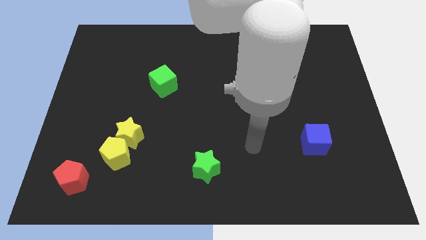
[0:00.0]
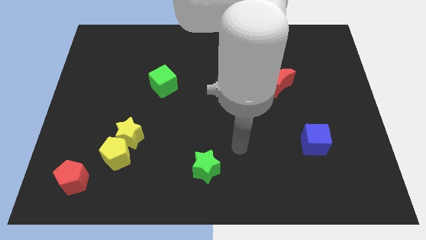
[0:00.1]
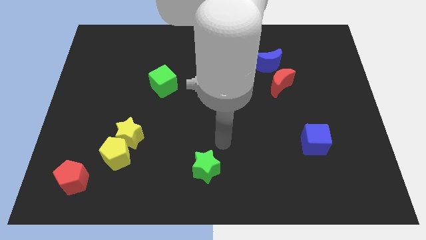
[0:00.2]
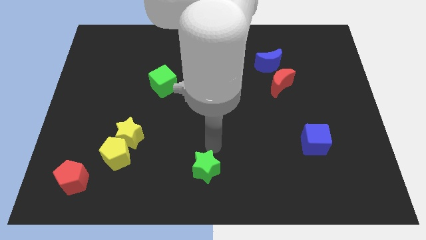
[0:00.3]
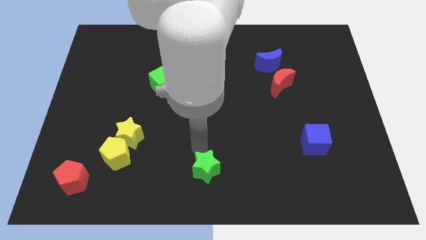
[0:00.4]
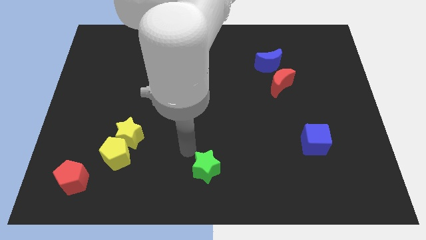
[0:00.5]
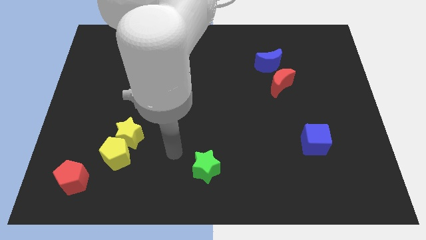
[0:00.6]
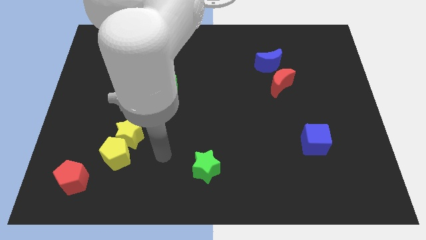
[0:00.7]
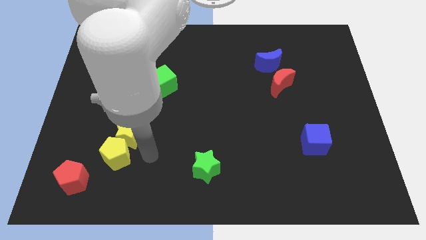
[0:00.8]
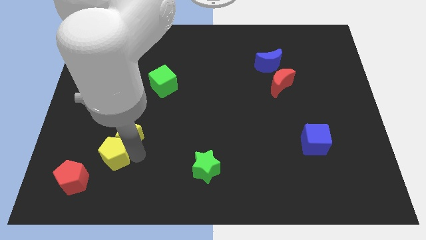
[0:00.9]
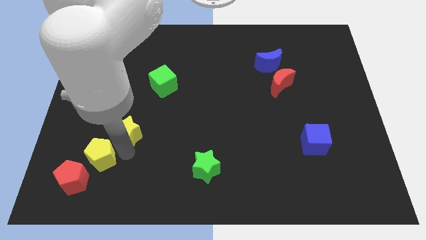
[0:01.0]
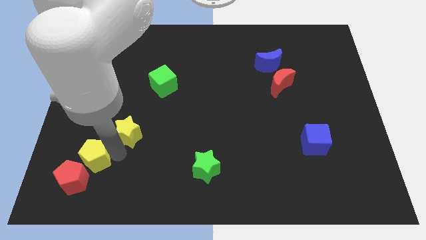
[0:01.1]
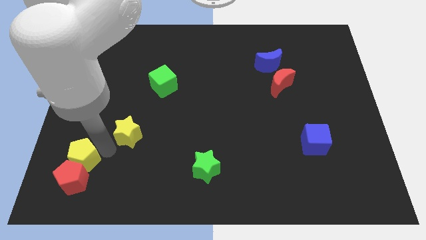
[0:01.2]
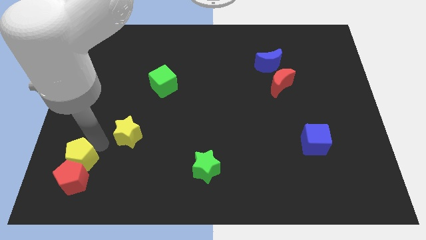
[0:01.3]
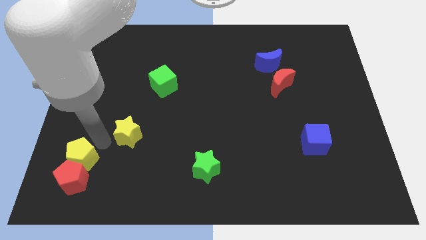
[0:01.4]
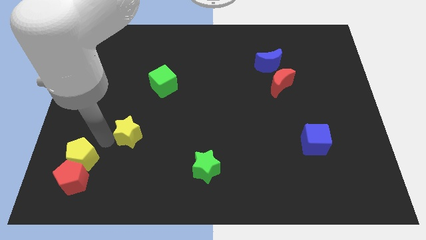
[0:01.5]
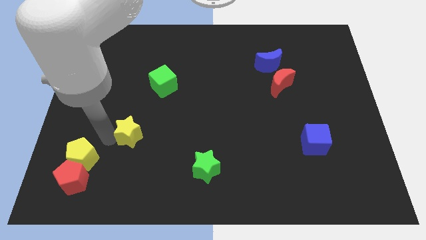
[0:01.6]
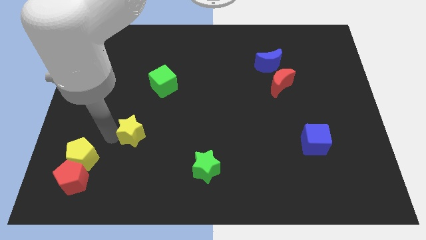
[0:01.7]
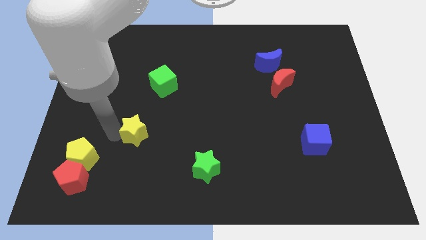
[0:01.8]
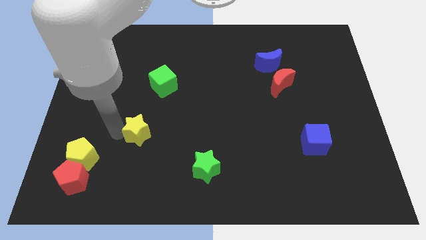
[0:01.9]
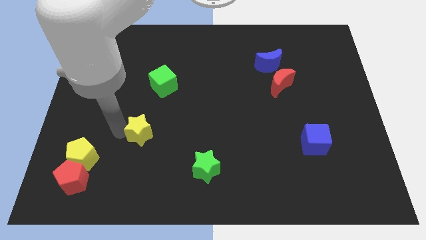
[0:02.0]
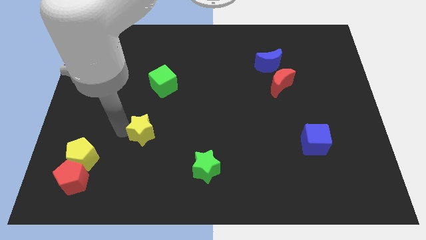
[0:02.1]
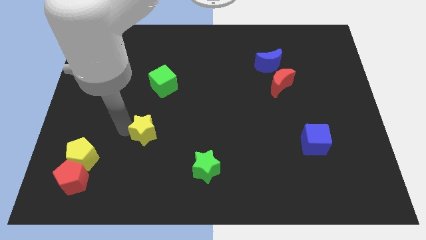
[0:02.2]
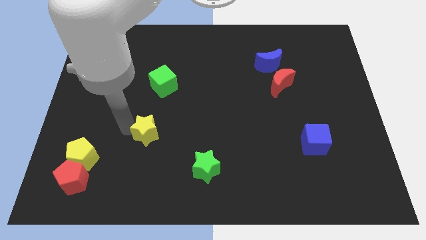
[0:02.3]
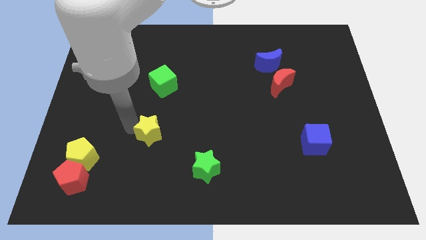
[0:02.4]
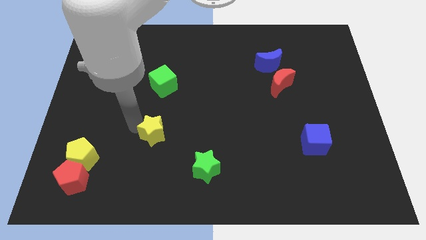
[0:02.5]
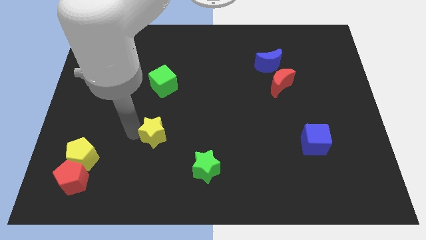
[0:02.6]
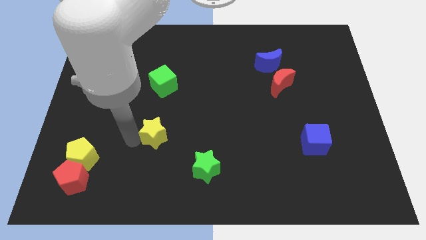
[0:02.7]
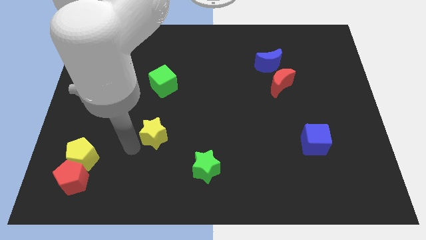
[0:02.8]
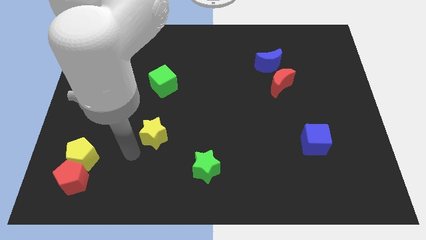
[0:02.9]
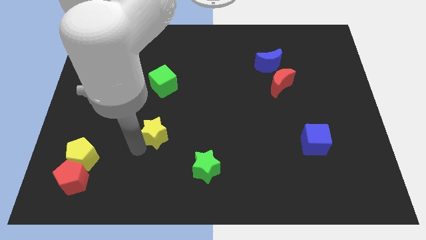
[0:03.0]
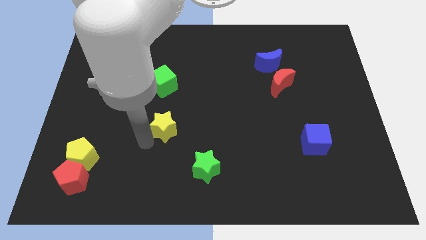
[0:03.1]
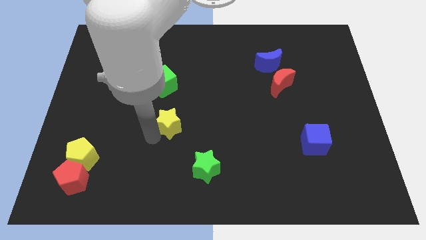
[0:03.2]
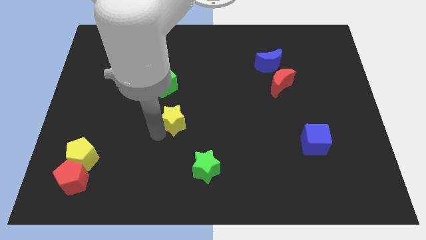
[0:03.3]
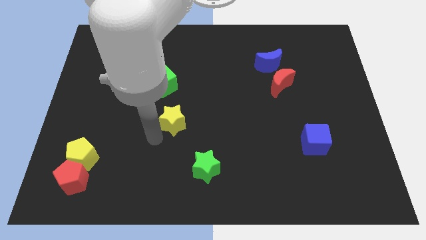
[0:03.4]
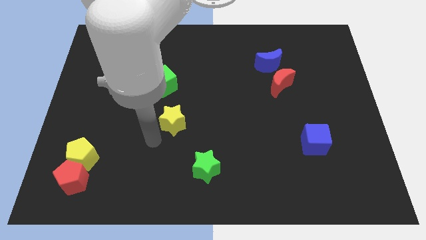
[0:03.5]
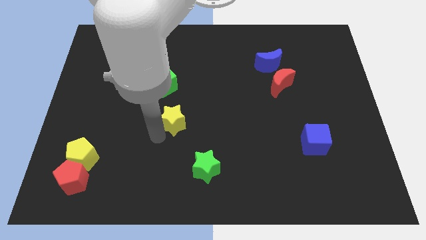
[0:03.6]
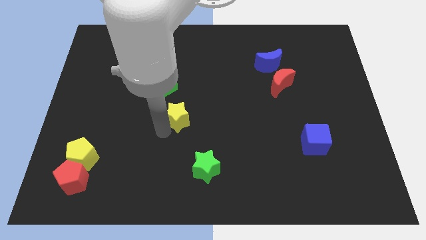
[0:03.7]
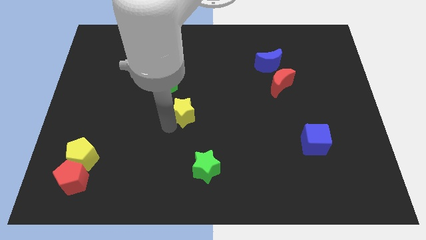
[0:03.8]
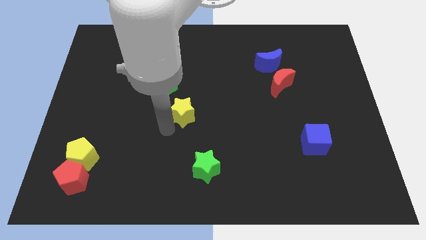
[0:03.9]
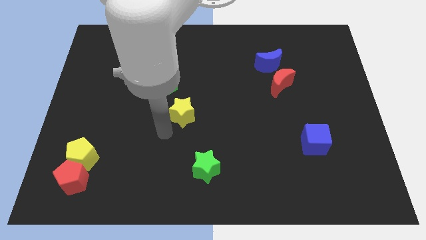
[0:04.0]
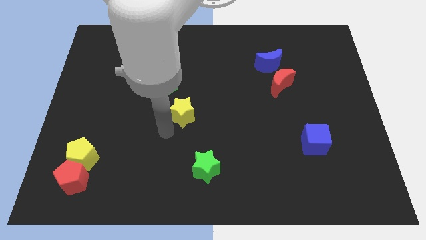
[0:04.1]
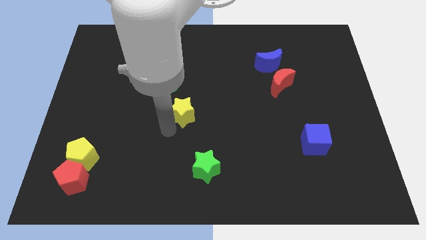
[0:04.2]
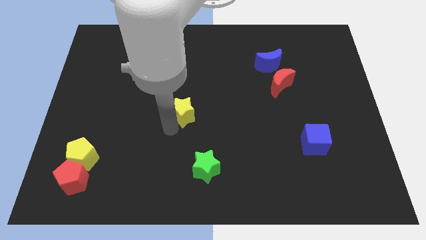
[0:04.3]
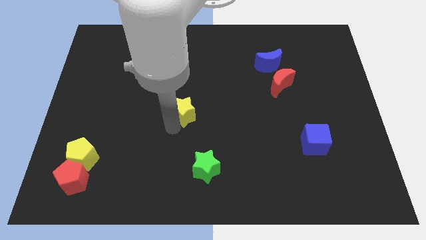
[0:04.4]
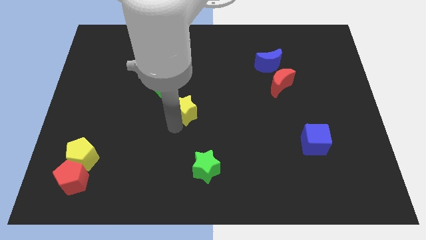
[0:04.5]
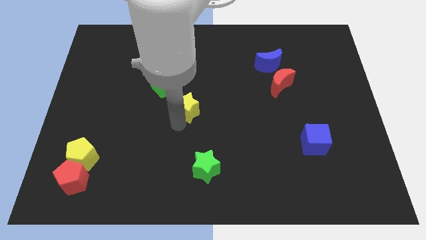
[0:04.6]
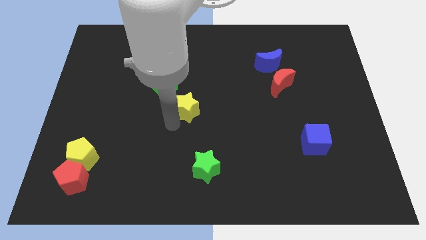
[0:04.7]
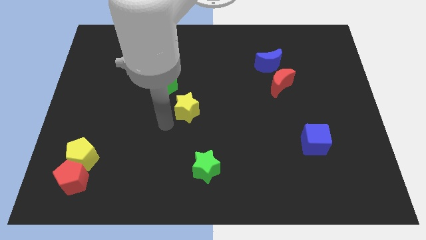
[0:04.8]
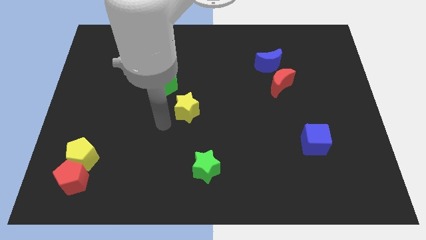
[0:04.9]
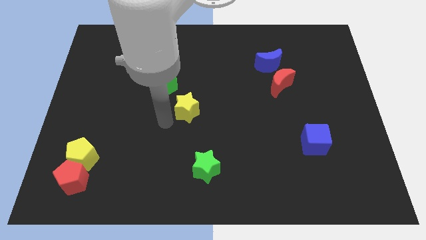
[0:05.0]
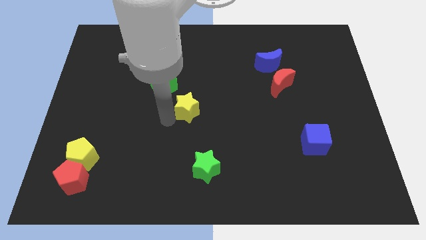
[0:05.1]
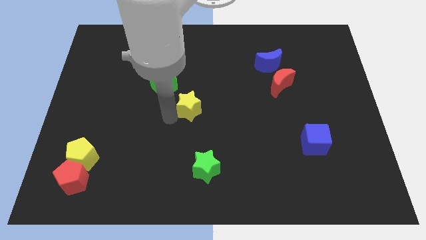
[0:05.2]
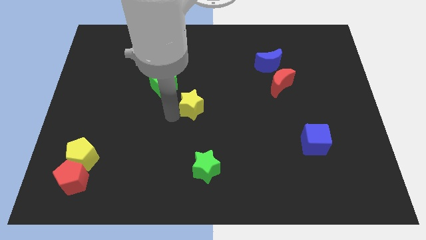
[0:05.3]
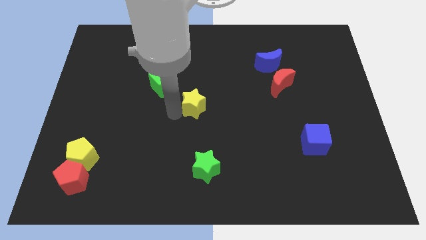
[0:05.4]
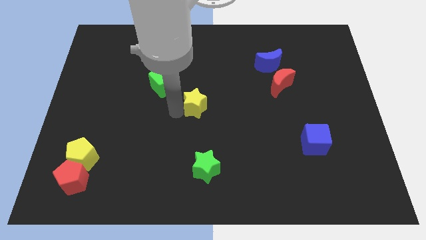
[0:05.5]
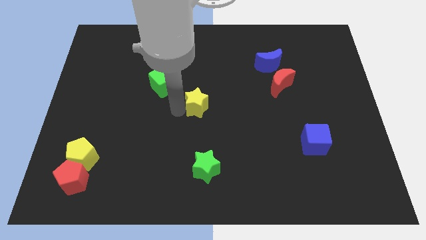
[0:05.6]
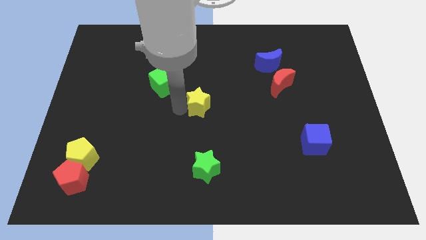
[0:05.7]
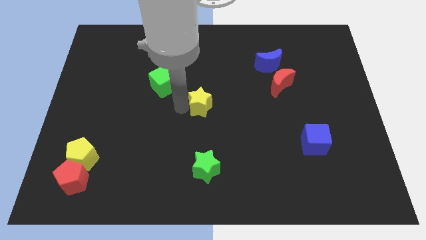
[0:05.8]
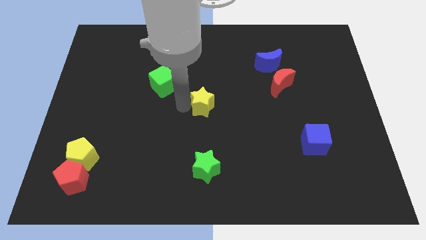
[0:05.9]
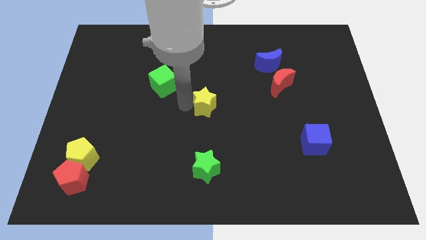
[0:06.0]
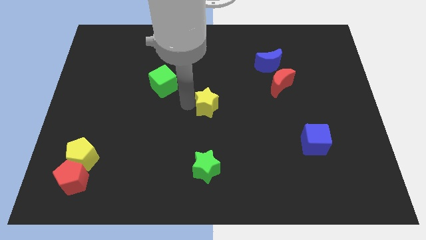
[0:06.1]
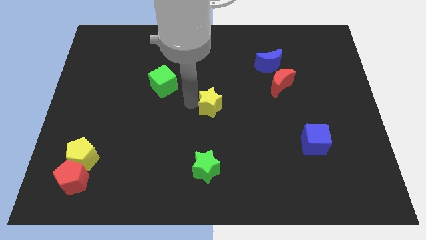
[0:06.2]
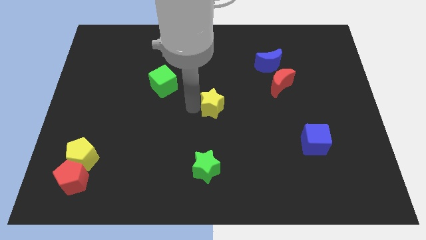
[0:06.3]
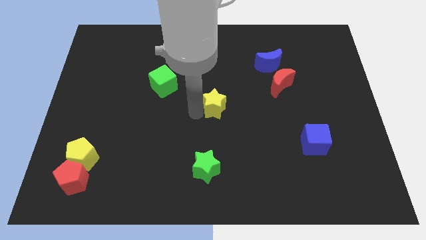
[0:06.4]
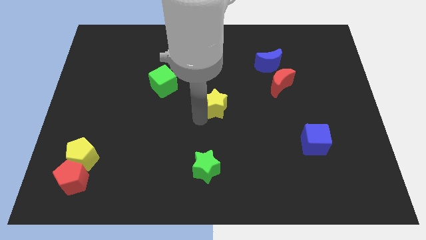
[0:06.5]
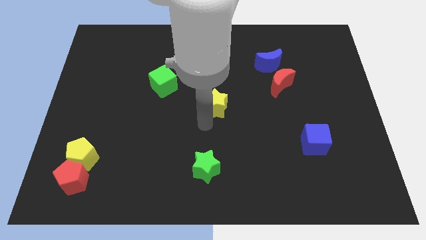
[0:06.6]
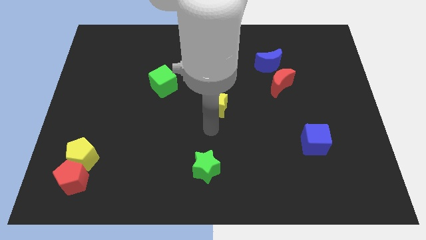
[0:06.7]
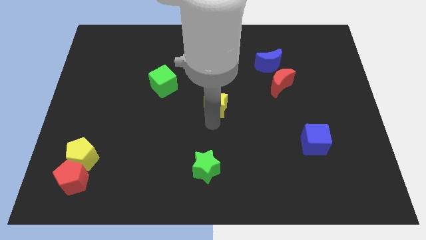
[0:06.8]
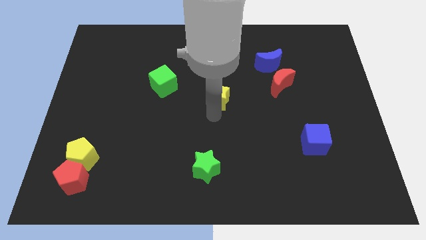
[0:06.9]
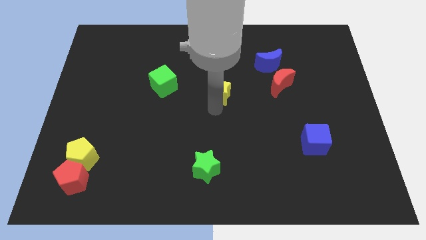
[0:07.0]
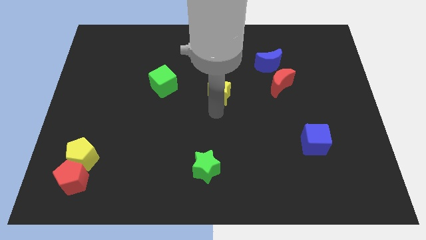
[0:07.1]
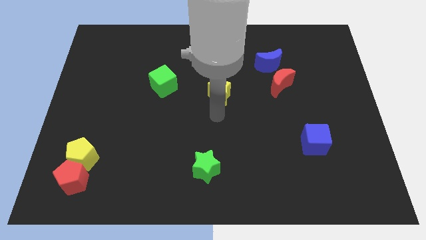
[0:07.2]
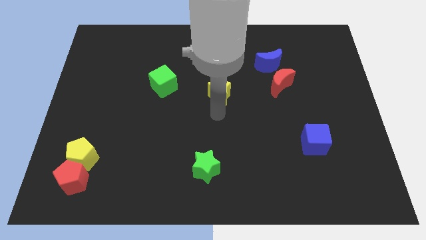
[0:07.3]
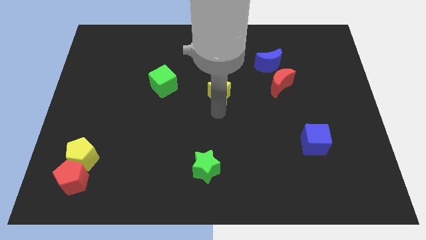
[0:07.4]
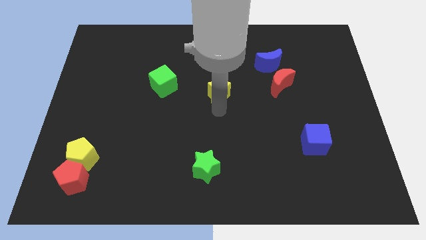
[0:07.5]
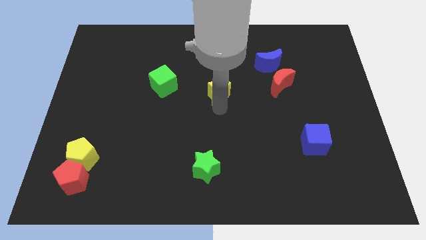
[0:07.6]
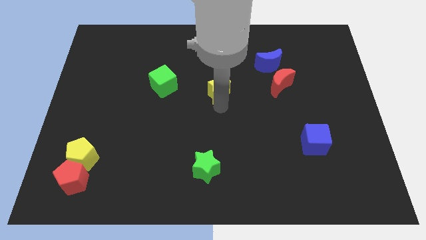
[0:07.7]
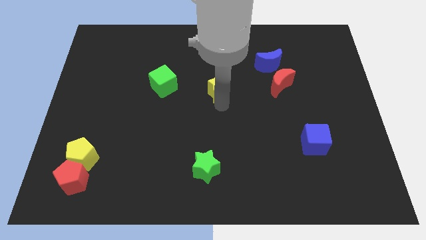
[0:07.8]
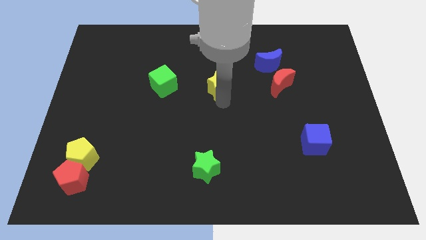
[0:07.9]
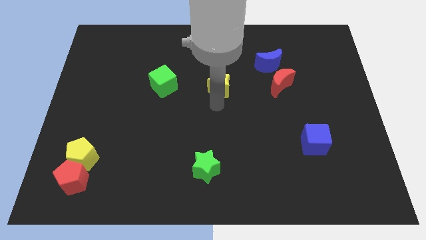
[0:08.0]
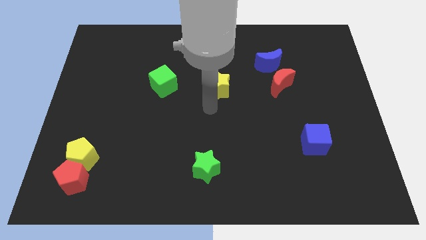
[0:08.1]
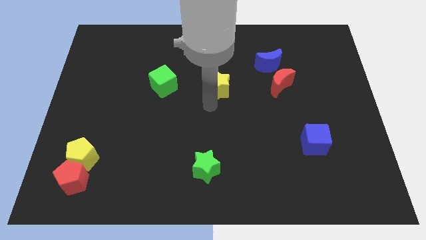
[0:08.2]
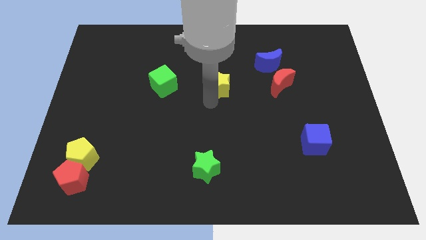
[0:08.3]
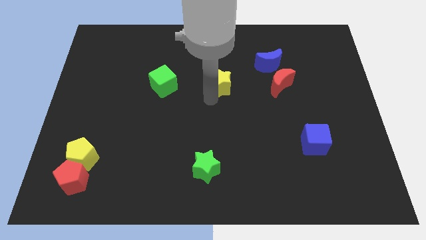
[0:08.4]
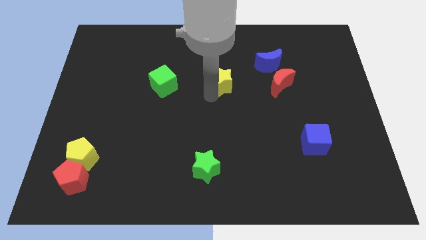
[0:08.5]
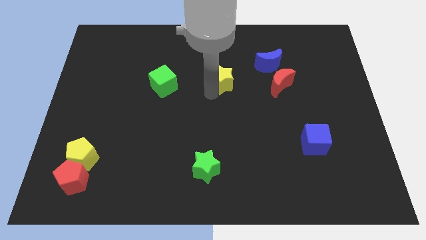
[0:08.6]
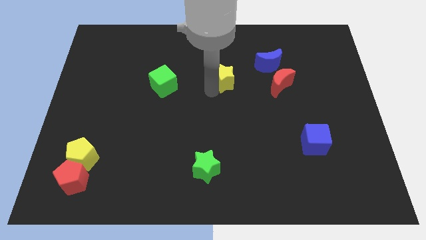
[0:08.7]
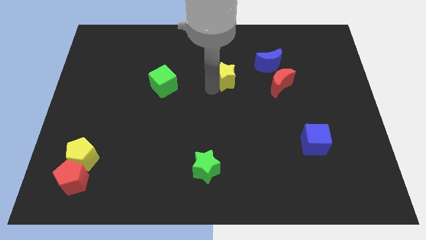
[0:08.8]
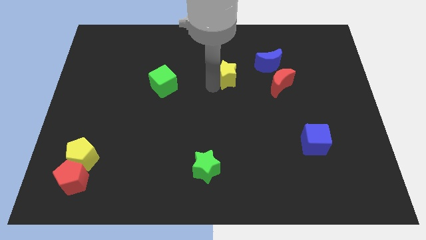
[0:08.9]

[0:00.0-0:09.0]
put the yellow star to the left side of the blue moon
